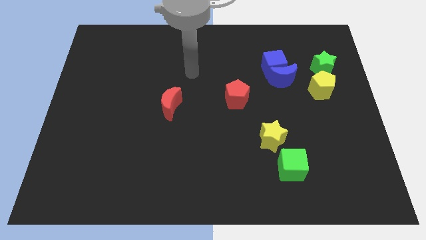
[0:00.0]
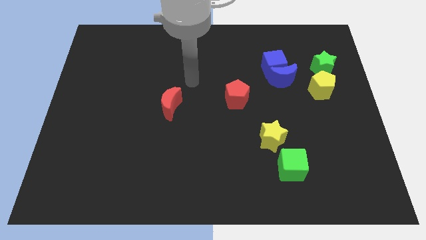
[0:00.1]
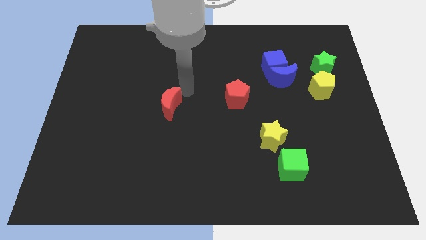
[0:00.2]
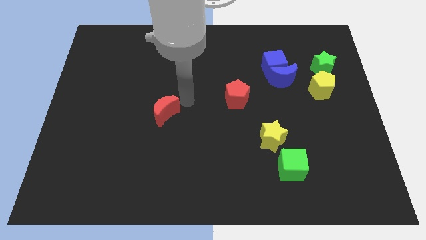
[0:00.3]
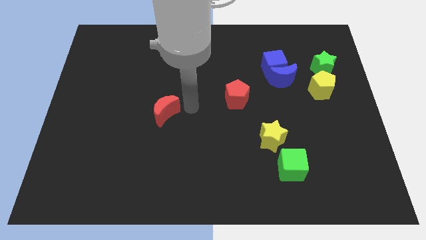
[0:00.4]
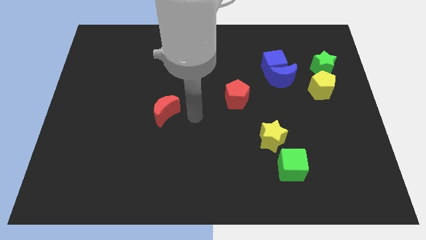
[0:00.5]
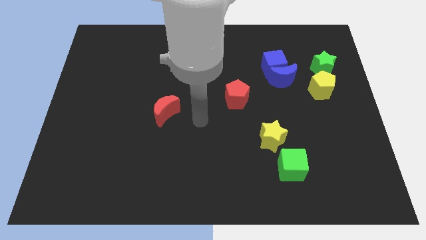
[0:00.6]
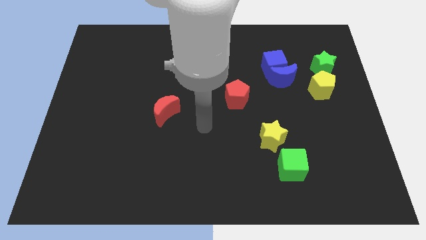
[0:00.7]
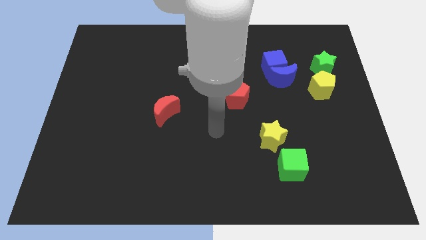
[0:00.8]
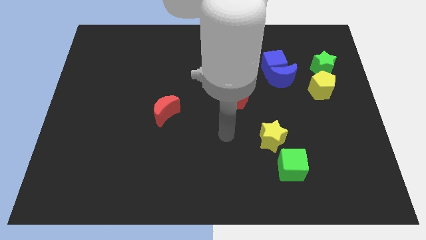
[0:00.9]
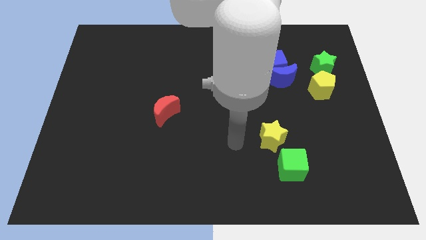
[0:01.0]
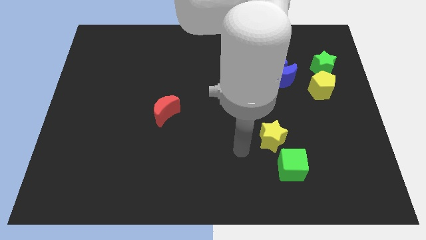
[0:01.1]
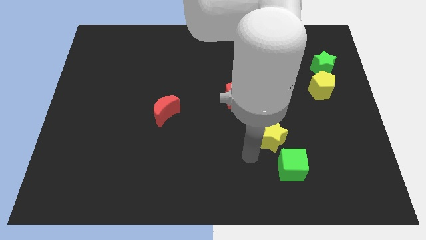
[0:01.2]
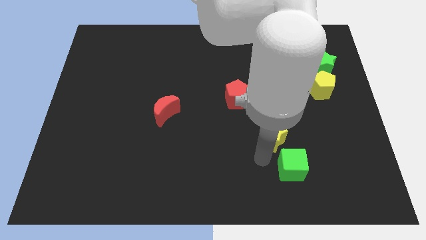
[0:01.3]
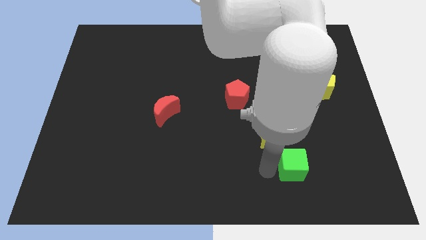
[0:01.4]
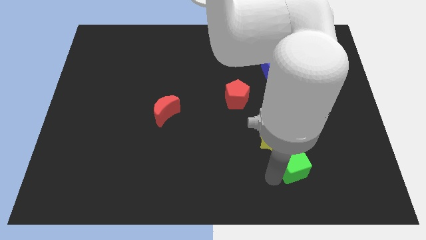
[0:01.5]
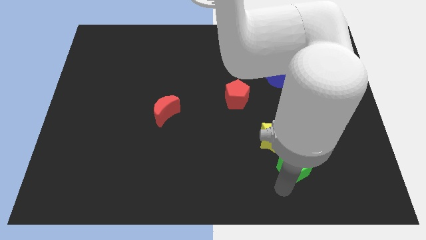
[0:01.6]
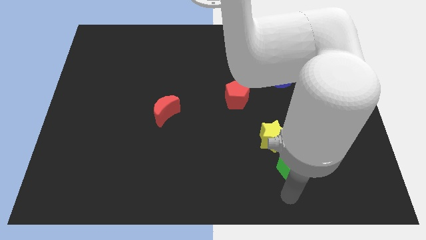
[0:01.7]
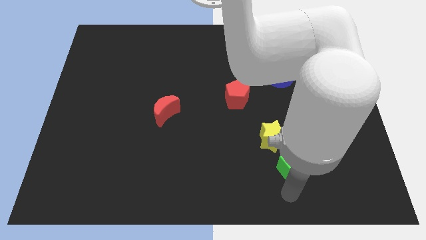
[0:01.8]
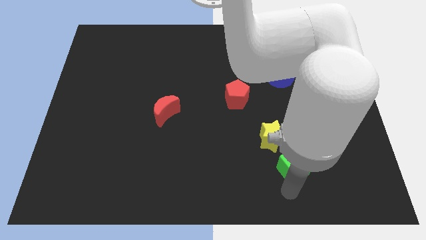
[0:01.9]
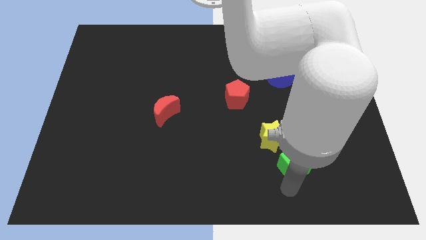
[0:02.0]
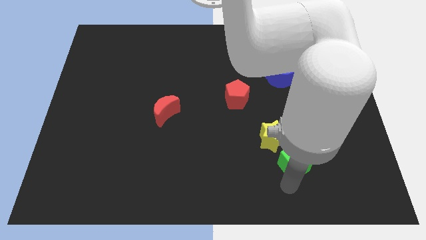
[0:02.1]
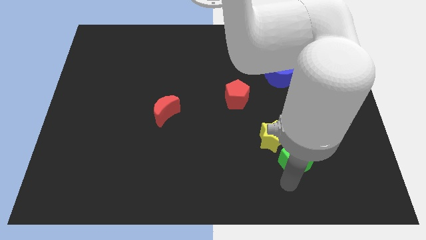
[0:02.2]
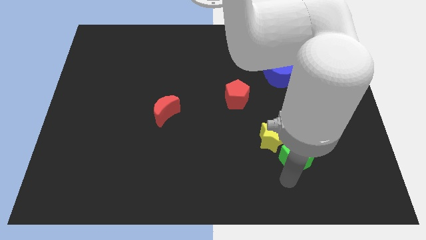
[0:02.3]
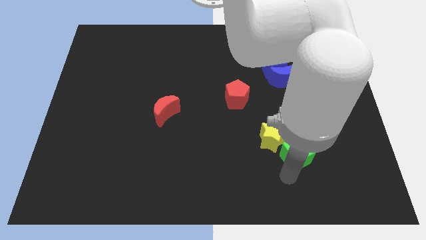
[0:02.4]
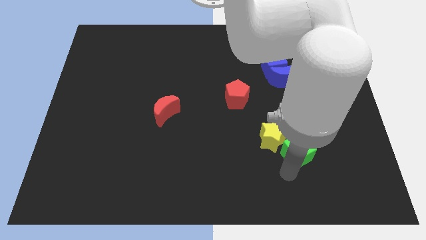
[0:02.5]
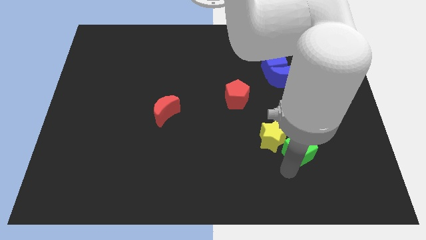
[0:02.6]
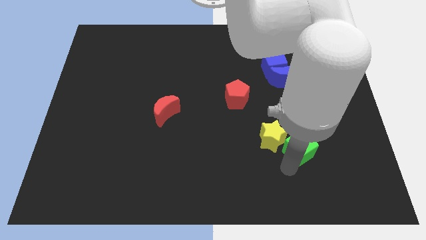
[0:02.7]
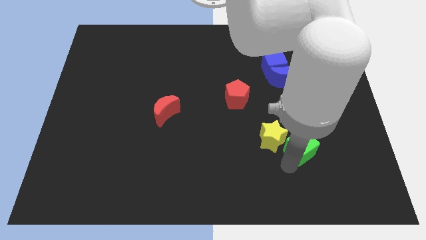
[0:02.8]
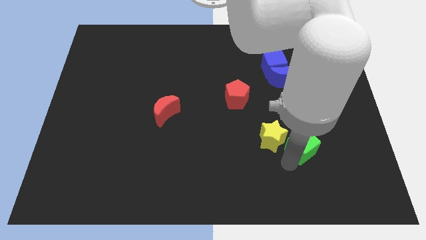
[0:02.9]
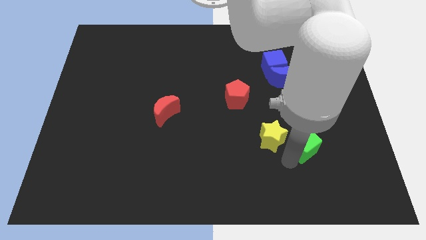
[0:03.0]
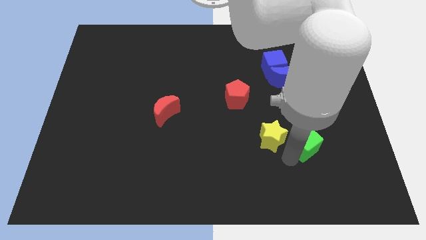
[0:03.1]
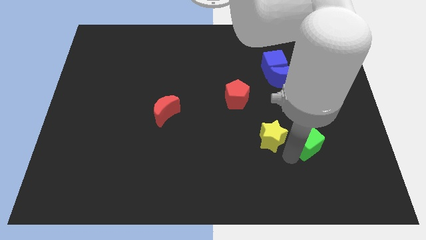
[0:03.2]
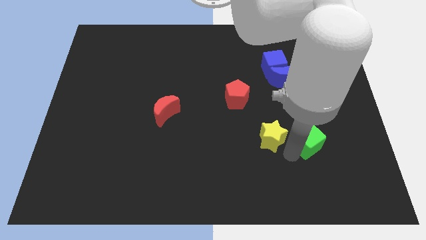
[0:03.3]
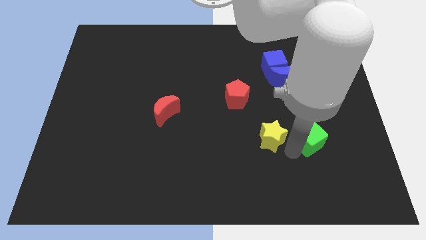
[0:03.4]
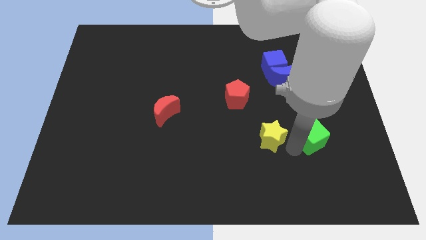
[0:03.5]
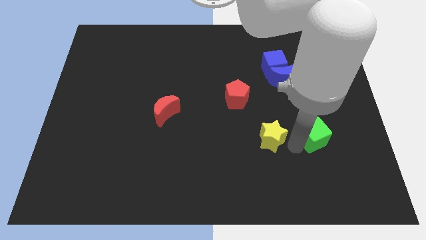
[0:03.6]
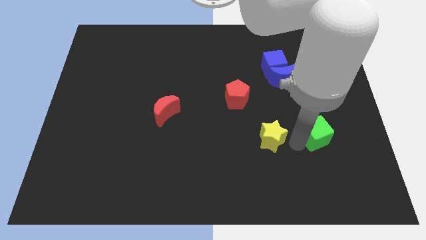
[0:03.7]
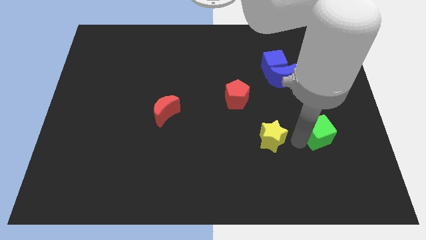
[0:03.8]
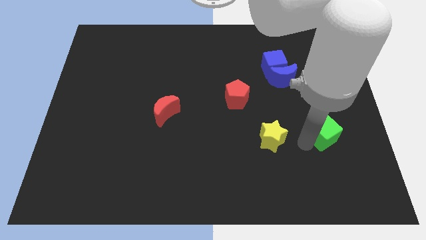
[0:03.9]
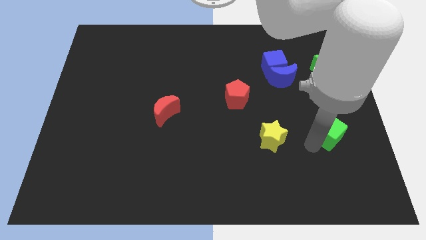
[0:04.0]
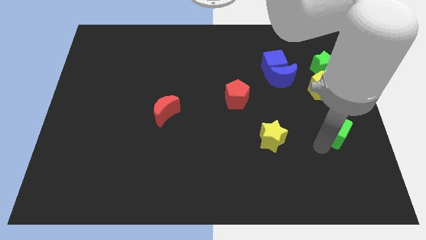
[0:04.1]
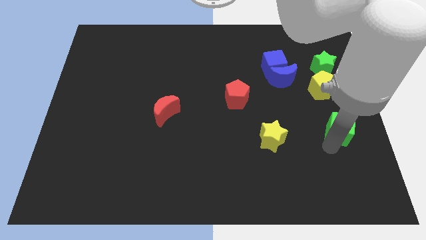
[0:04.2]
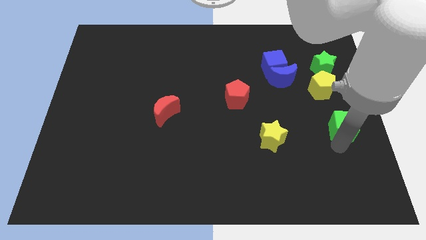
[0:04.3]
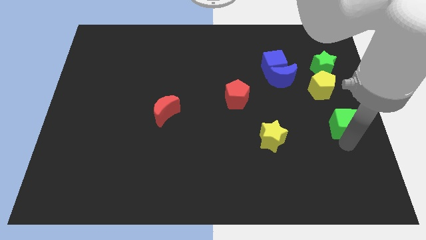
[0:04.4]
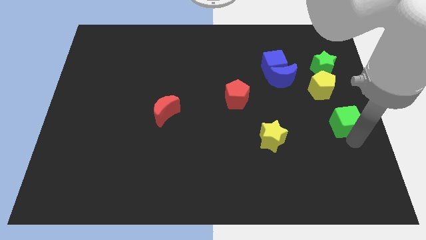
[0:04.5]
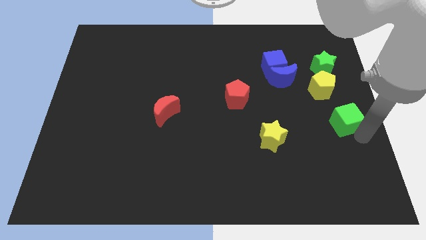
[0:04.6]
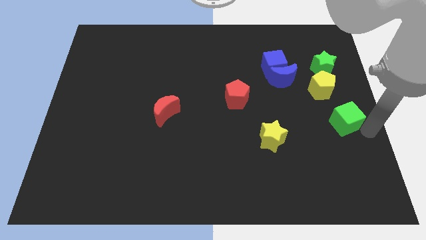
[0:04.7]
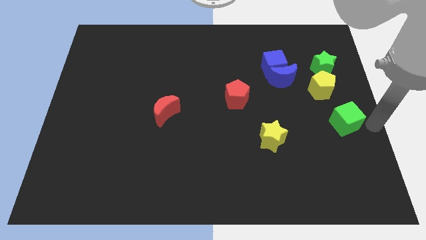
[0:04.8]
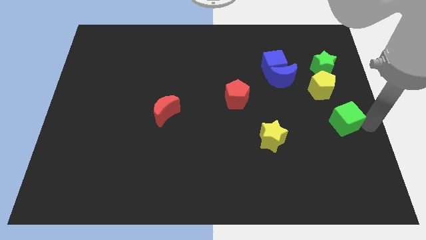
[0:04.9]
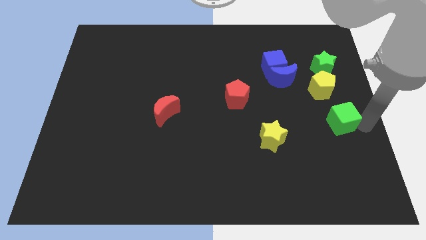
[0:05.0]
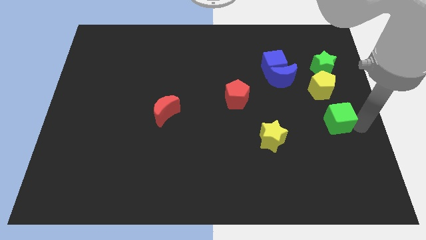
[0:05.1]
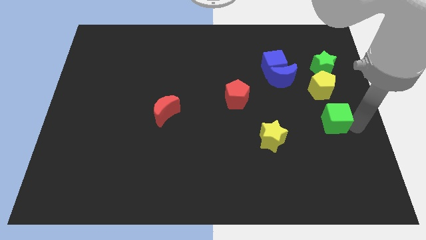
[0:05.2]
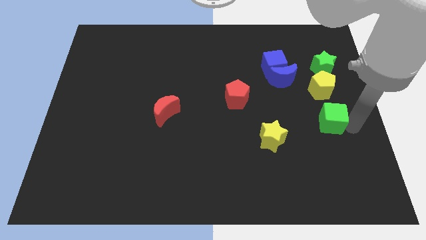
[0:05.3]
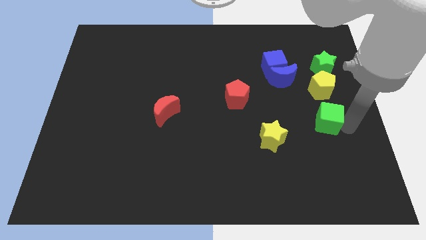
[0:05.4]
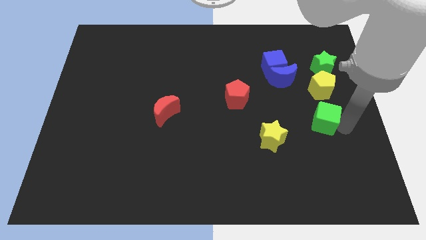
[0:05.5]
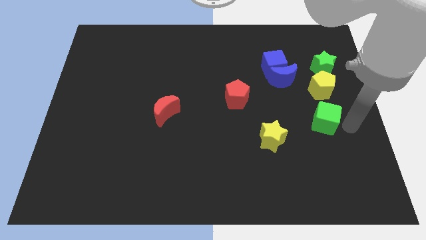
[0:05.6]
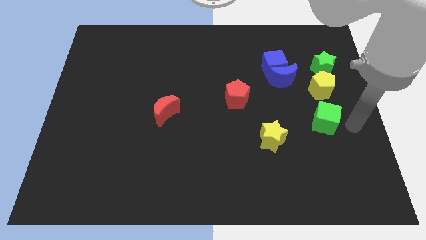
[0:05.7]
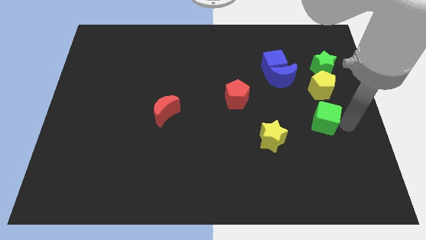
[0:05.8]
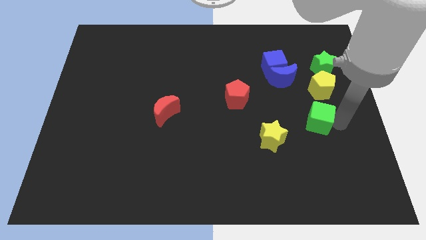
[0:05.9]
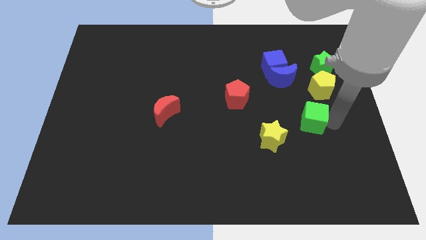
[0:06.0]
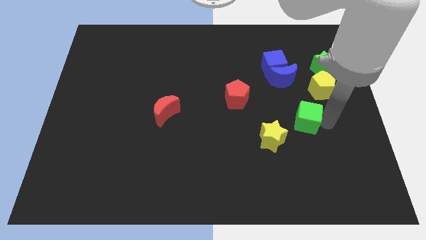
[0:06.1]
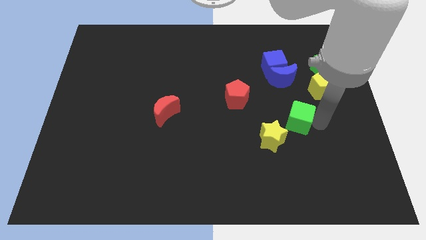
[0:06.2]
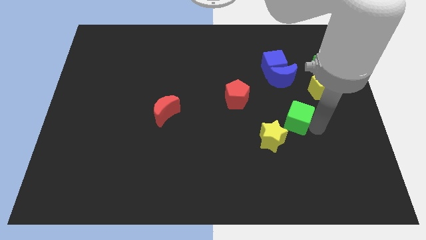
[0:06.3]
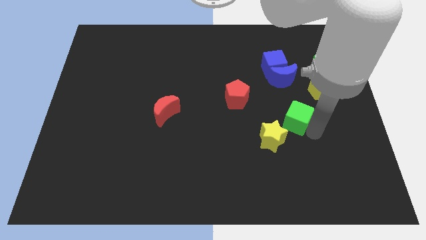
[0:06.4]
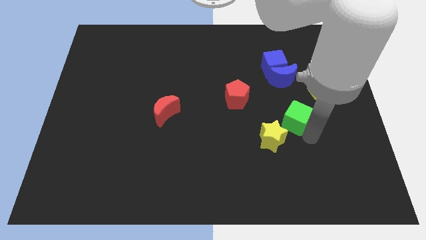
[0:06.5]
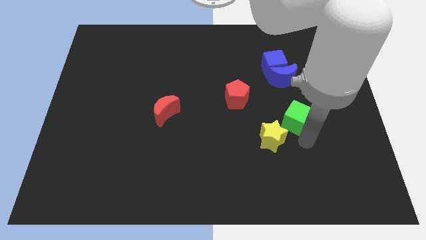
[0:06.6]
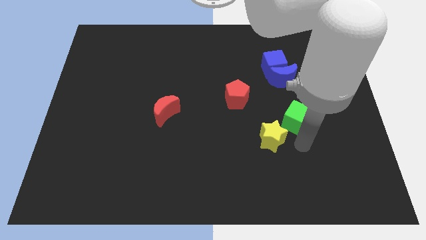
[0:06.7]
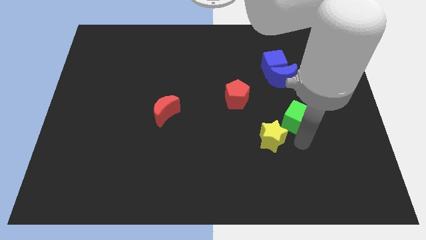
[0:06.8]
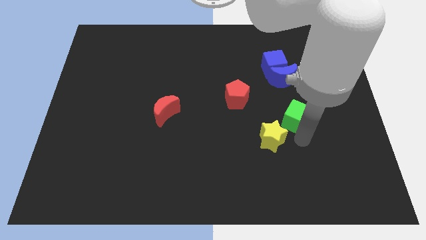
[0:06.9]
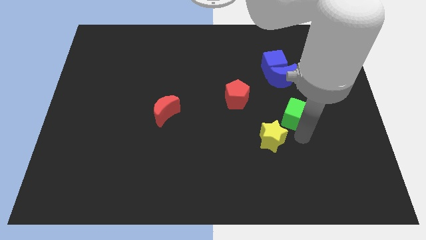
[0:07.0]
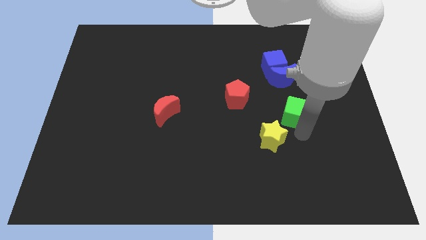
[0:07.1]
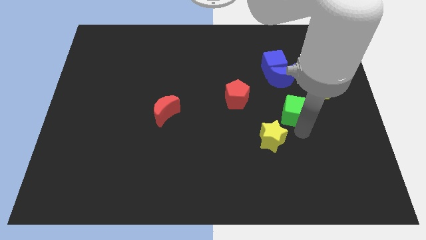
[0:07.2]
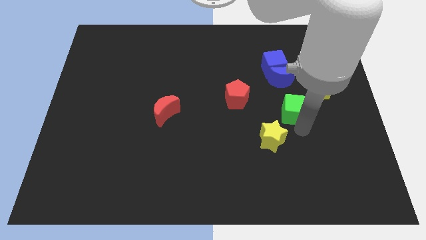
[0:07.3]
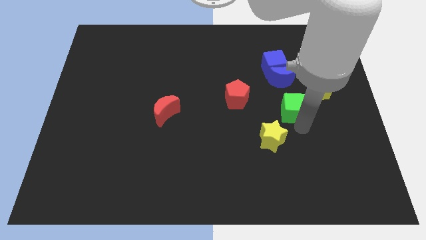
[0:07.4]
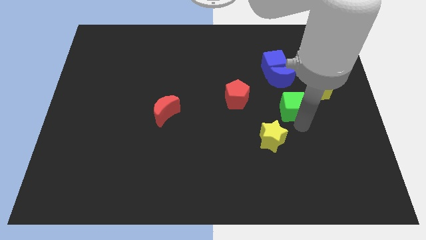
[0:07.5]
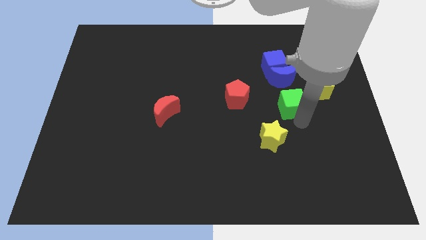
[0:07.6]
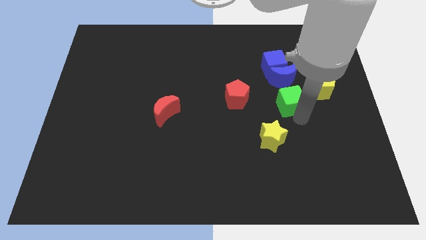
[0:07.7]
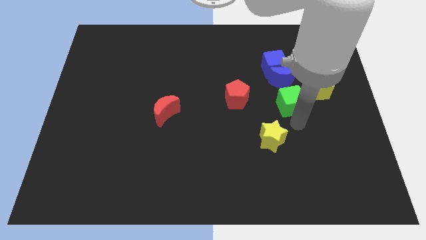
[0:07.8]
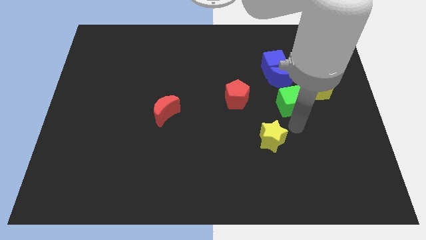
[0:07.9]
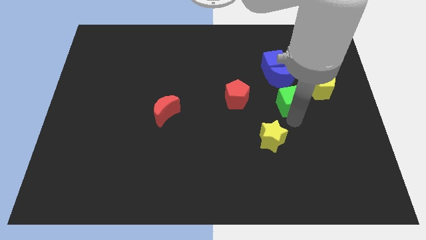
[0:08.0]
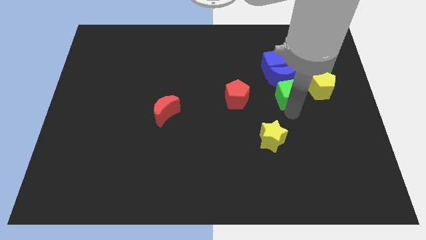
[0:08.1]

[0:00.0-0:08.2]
push the green cube to the blue moon
